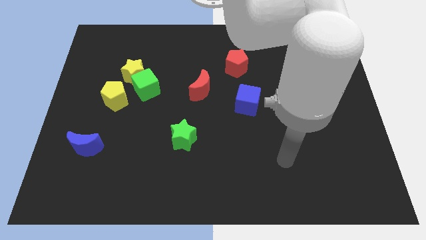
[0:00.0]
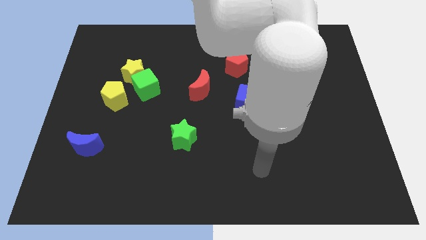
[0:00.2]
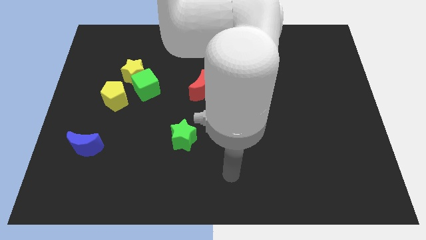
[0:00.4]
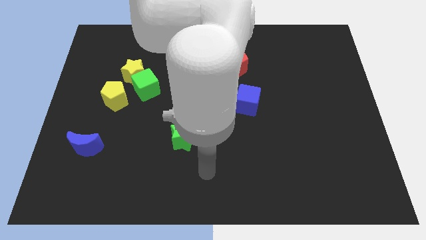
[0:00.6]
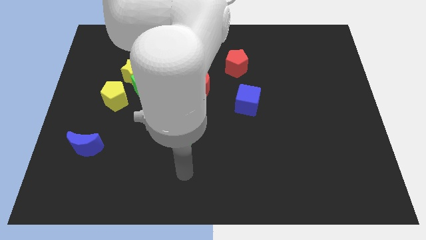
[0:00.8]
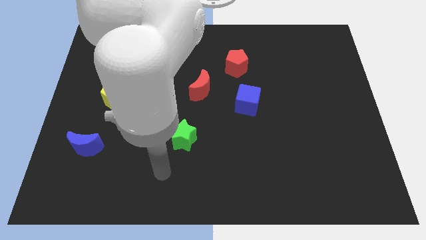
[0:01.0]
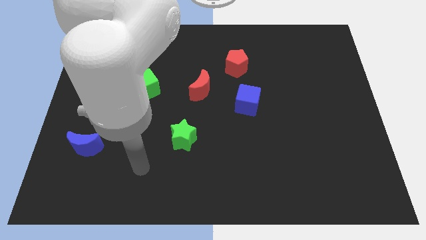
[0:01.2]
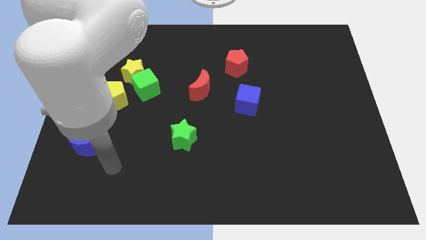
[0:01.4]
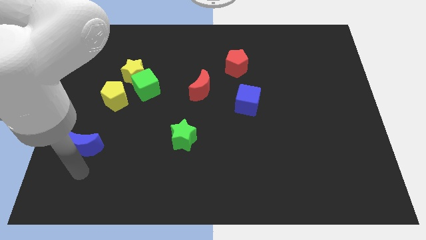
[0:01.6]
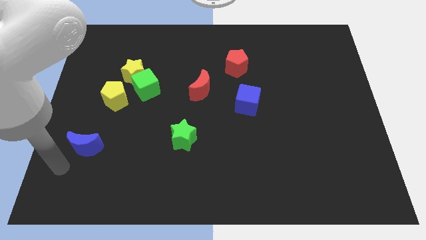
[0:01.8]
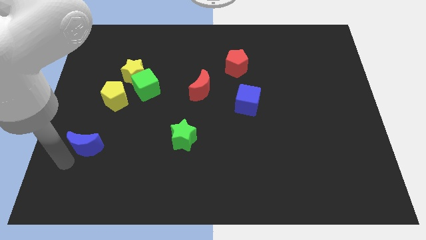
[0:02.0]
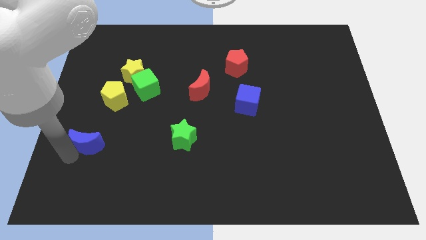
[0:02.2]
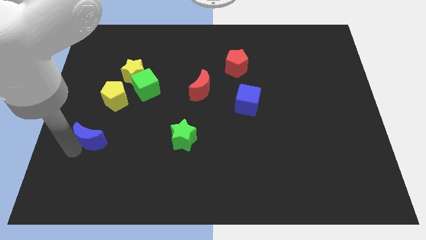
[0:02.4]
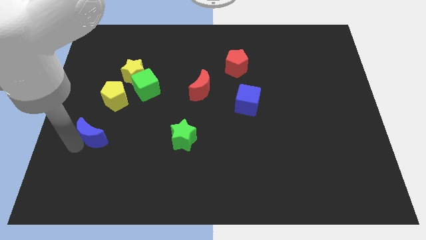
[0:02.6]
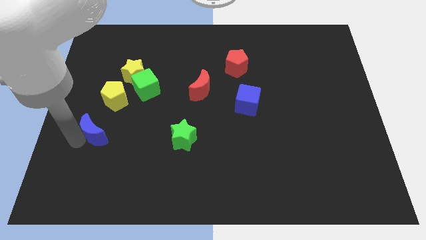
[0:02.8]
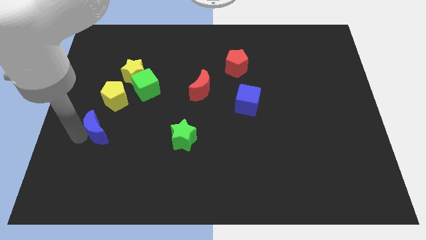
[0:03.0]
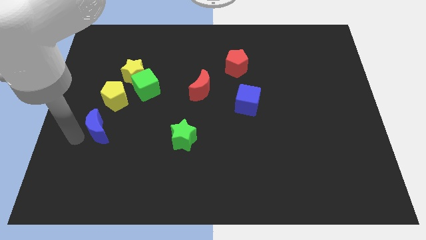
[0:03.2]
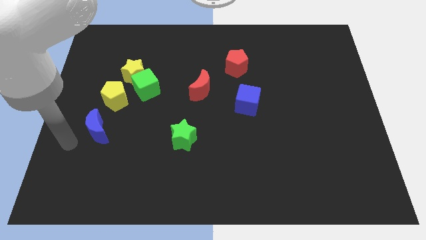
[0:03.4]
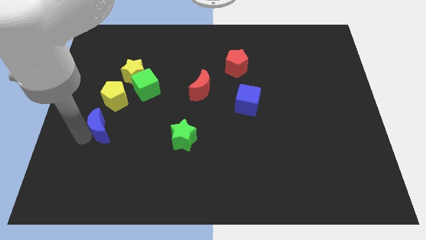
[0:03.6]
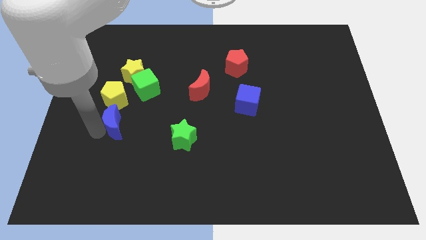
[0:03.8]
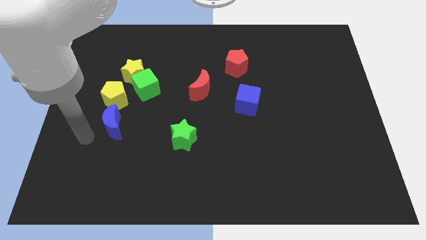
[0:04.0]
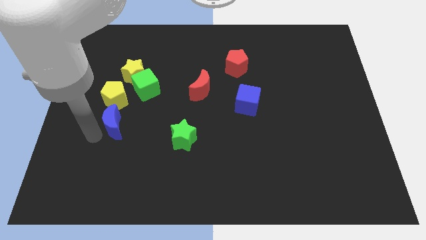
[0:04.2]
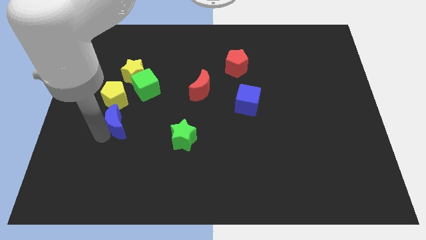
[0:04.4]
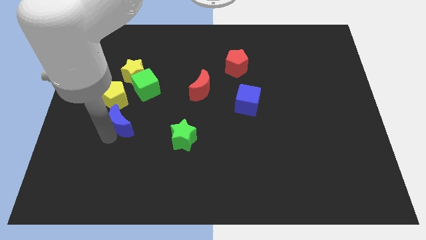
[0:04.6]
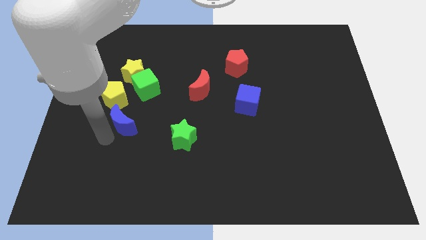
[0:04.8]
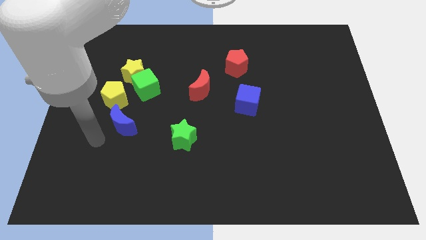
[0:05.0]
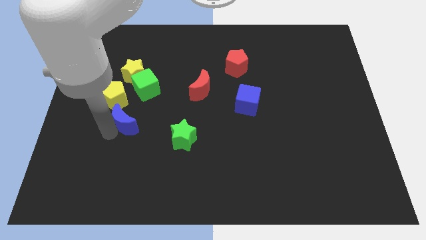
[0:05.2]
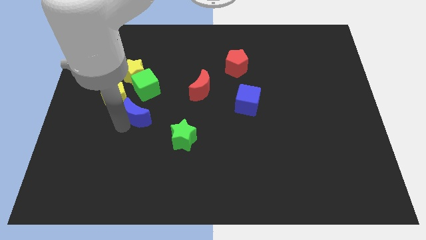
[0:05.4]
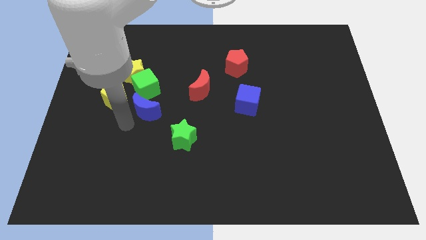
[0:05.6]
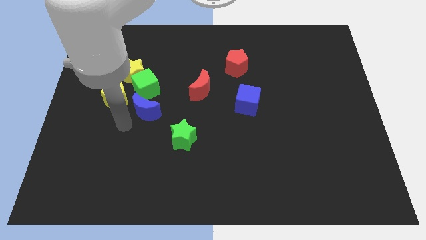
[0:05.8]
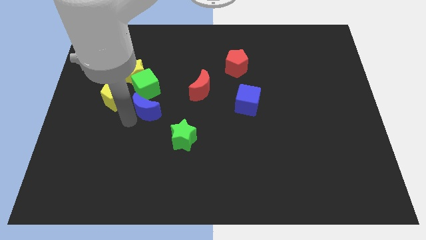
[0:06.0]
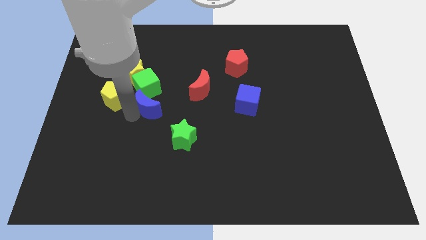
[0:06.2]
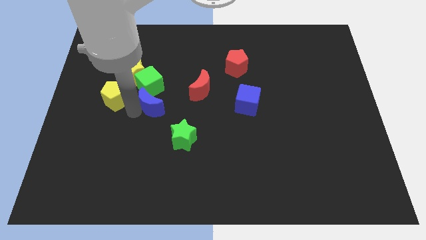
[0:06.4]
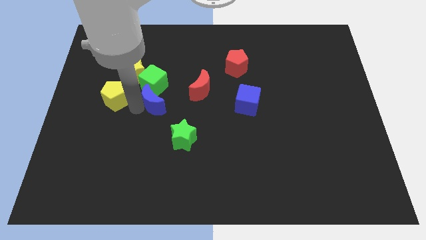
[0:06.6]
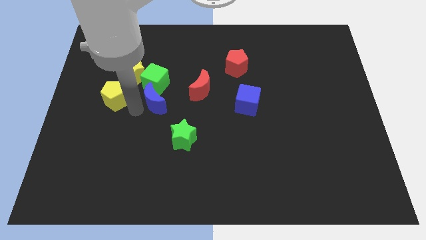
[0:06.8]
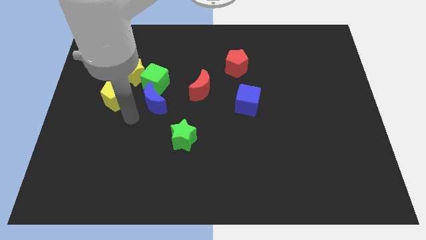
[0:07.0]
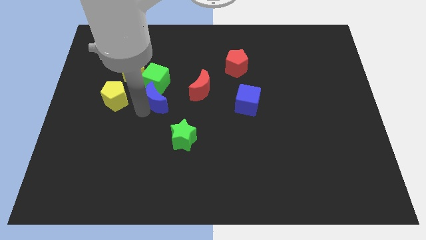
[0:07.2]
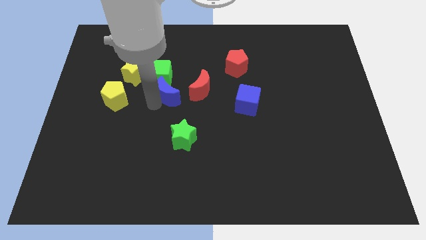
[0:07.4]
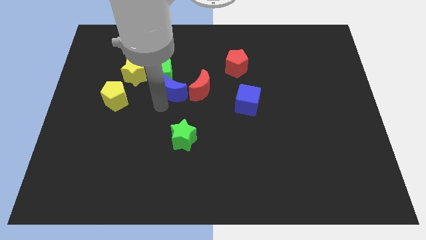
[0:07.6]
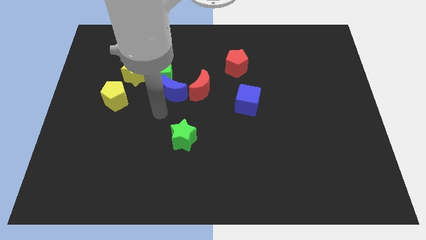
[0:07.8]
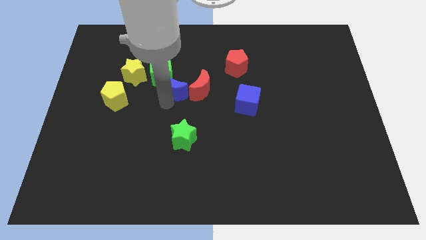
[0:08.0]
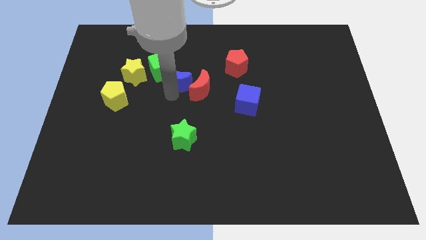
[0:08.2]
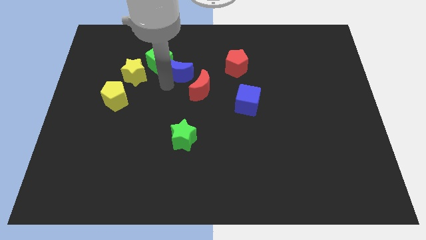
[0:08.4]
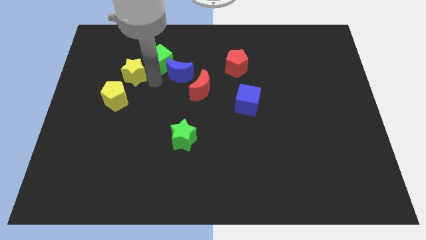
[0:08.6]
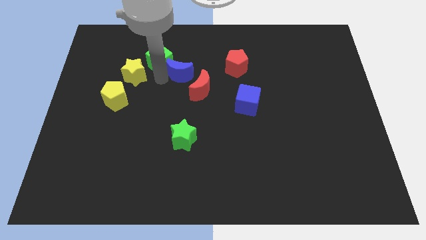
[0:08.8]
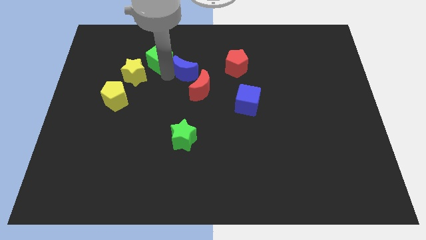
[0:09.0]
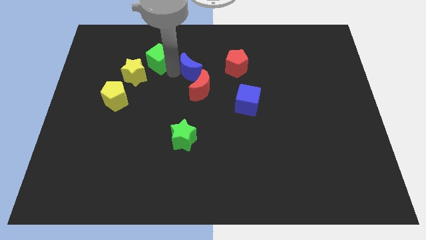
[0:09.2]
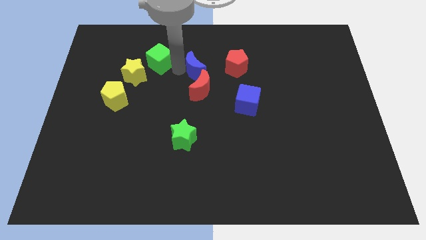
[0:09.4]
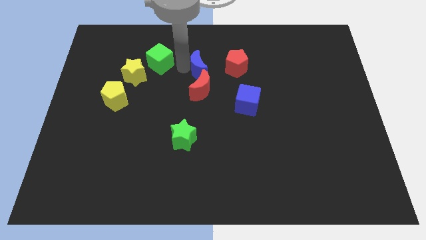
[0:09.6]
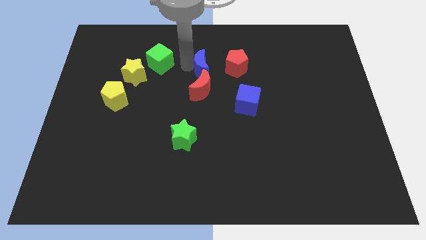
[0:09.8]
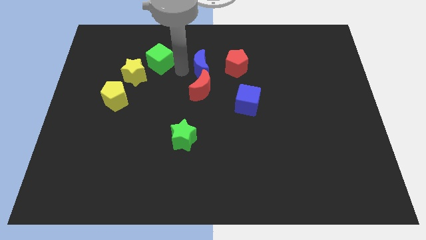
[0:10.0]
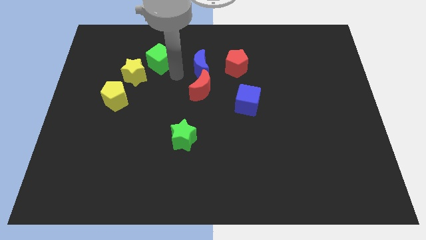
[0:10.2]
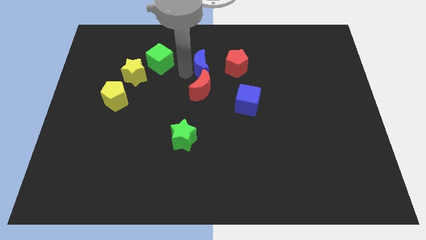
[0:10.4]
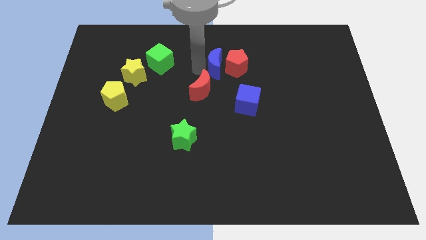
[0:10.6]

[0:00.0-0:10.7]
move the blue moon close to the red pentagon

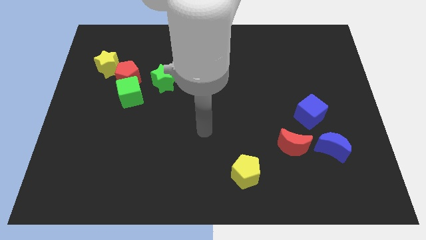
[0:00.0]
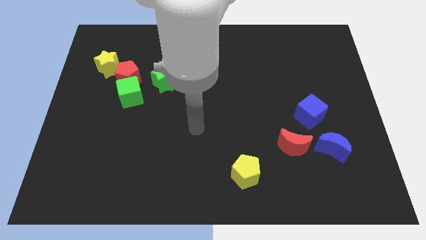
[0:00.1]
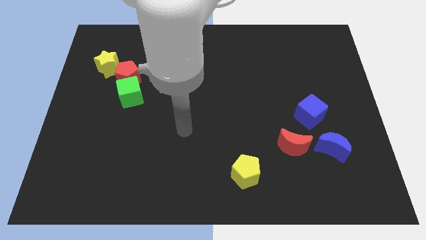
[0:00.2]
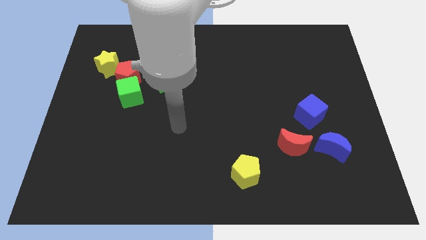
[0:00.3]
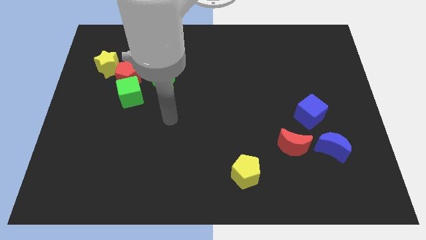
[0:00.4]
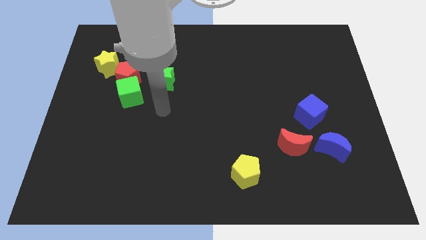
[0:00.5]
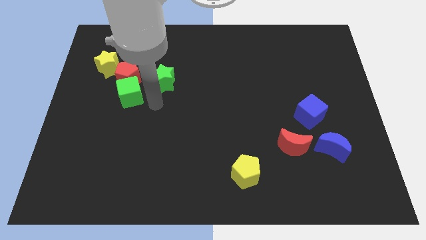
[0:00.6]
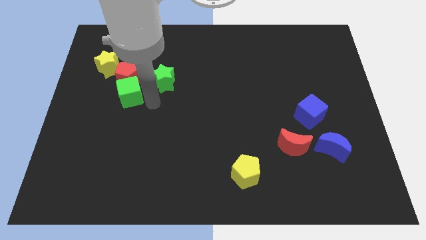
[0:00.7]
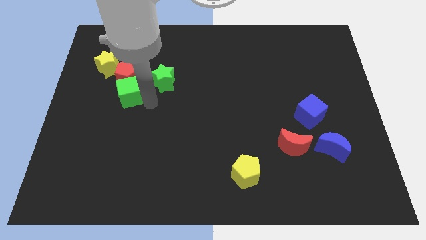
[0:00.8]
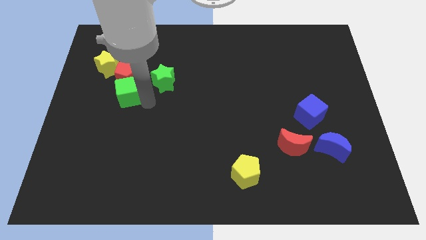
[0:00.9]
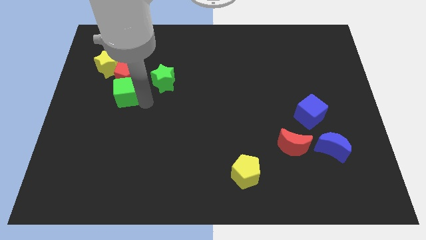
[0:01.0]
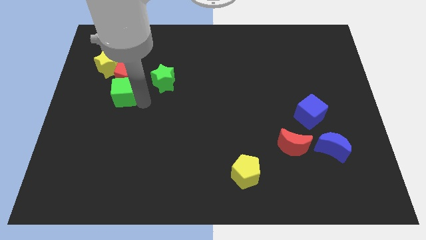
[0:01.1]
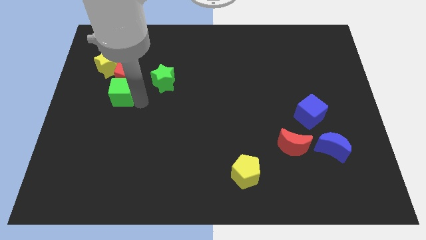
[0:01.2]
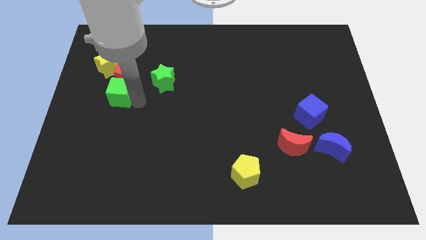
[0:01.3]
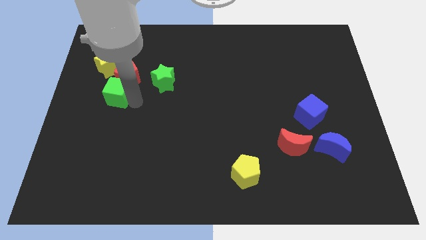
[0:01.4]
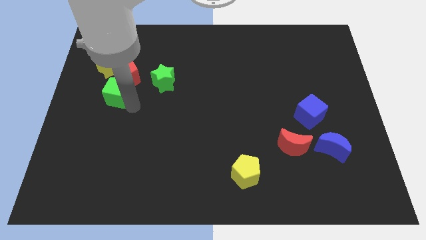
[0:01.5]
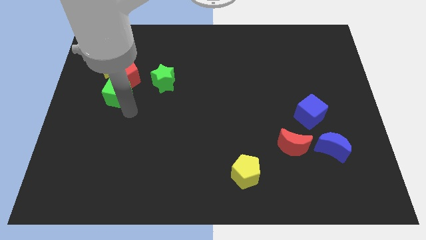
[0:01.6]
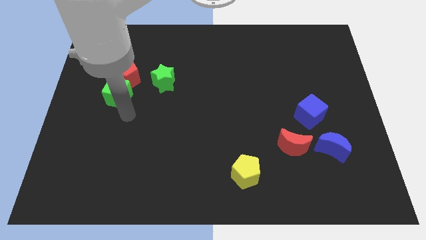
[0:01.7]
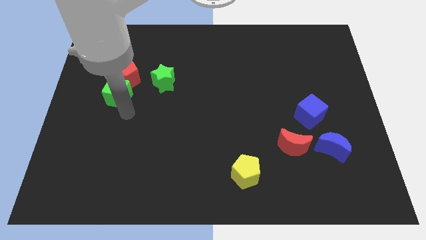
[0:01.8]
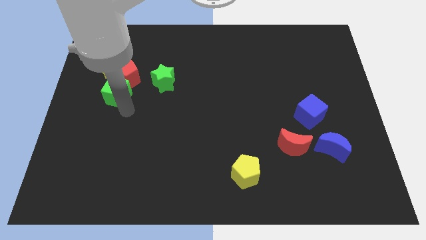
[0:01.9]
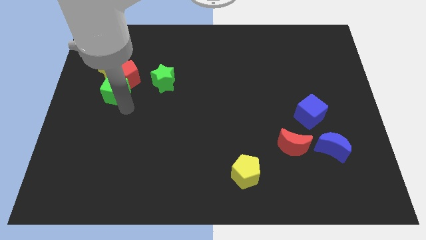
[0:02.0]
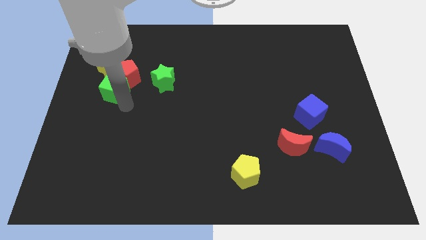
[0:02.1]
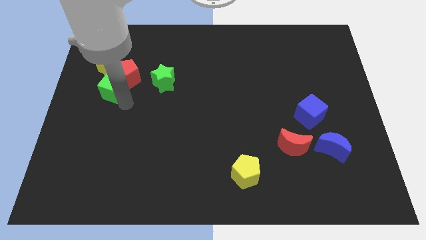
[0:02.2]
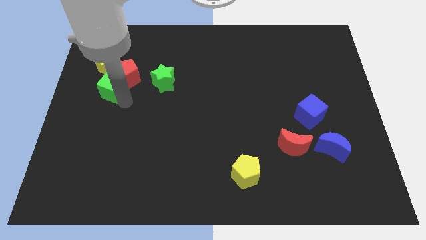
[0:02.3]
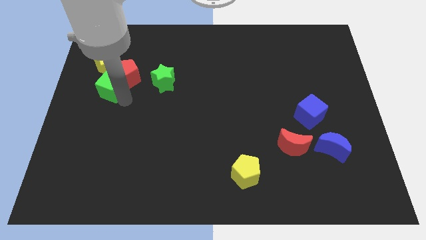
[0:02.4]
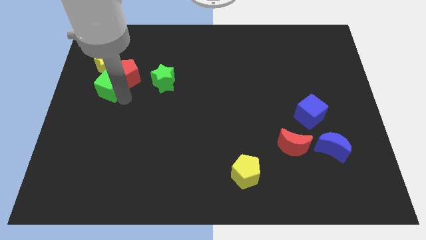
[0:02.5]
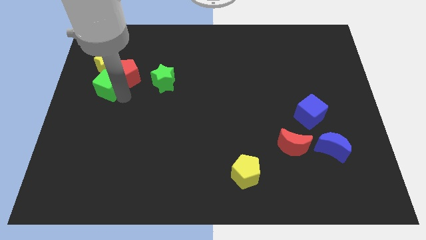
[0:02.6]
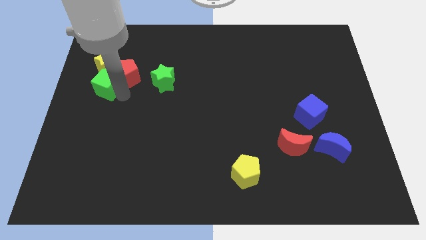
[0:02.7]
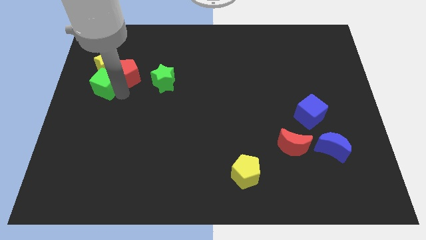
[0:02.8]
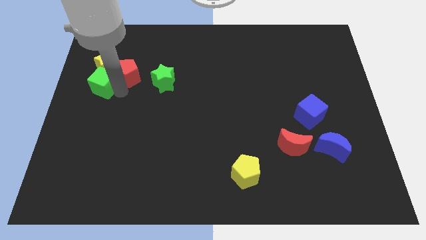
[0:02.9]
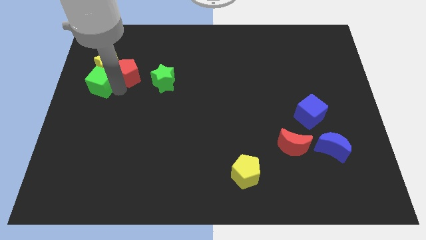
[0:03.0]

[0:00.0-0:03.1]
push the green cube towards the yellow star
